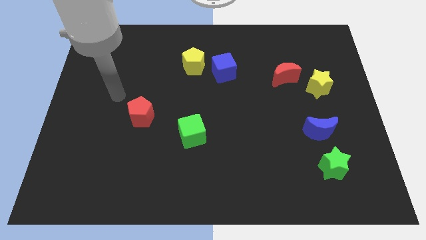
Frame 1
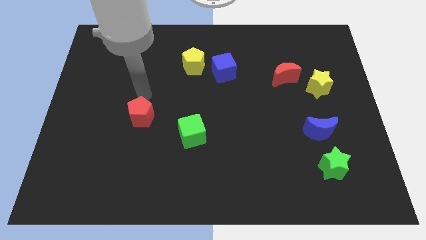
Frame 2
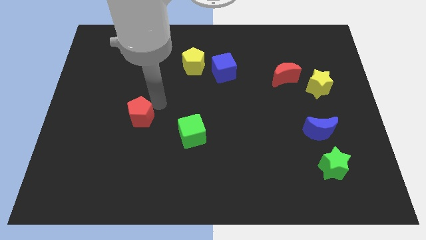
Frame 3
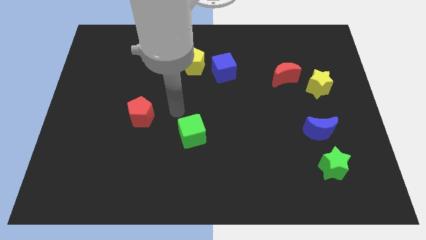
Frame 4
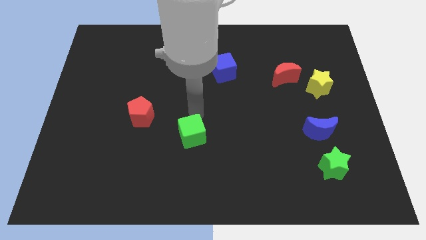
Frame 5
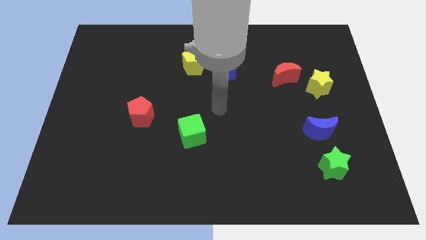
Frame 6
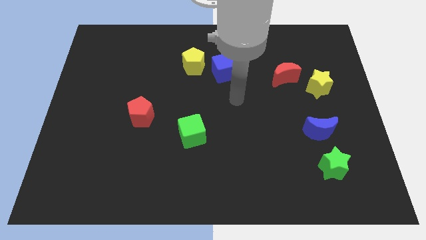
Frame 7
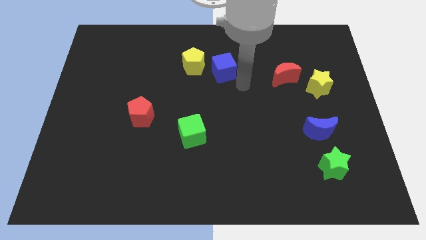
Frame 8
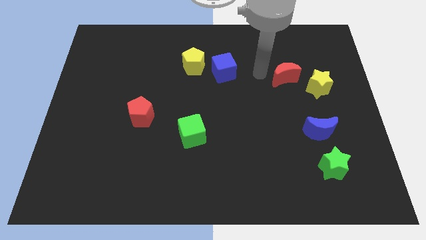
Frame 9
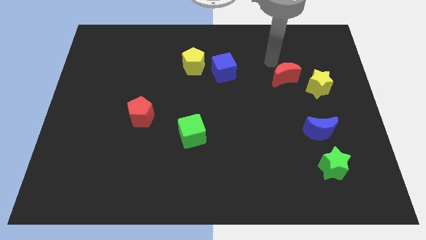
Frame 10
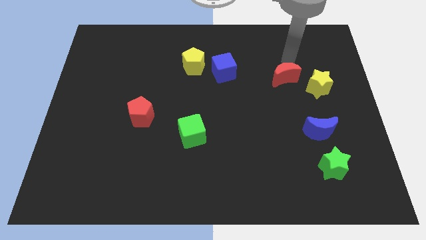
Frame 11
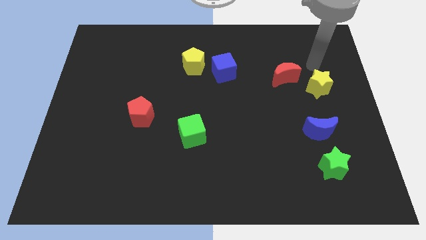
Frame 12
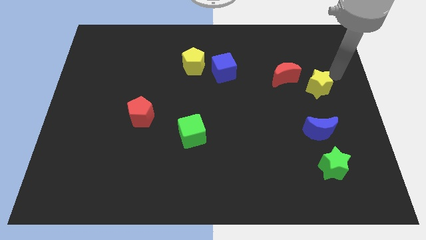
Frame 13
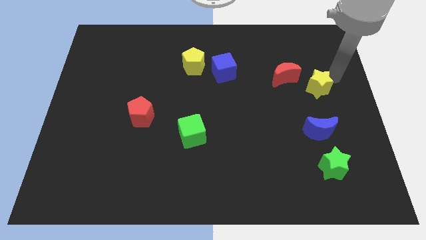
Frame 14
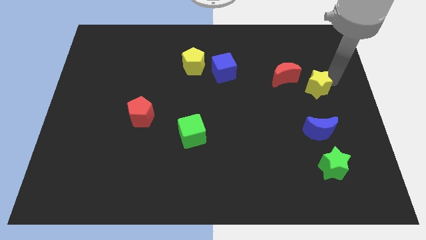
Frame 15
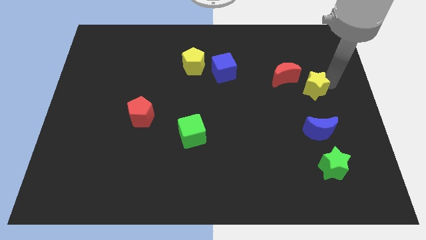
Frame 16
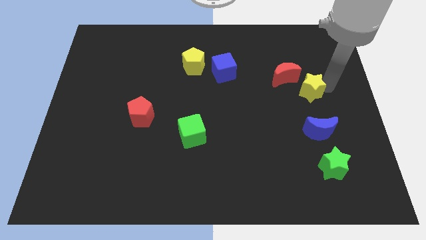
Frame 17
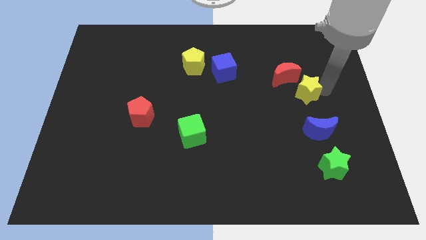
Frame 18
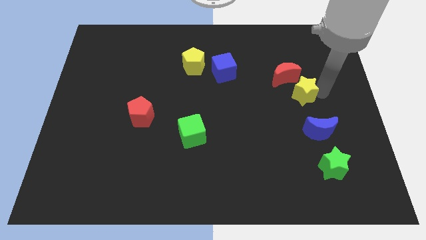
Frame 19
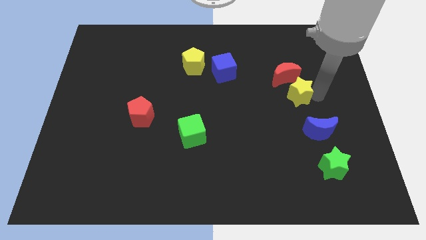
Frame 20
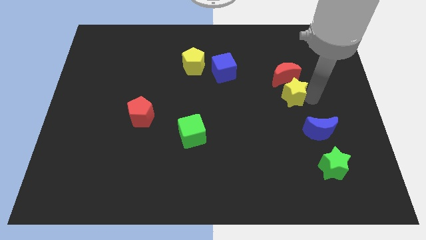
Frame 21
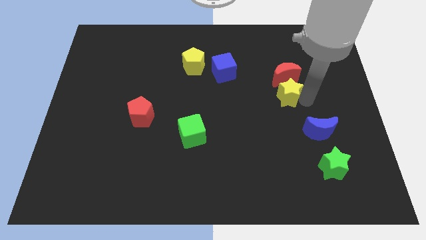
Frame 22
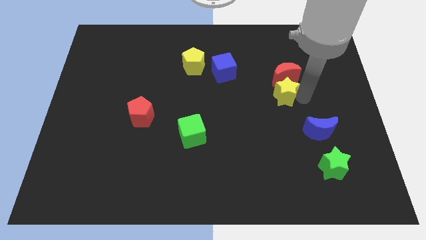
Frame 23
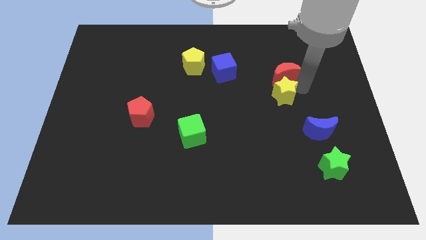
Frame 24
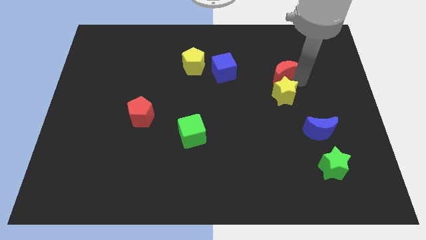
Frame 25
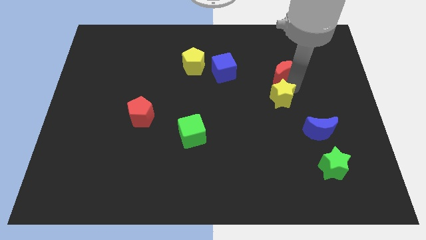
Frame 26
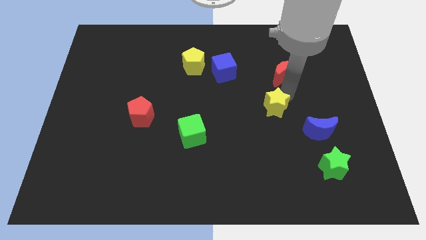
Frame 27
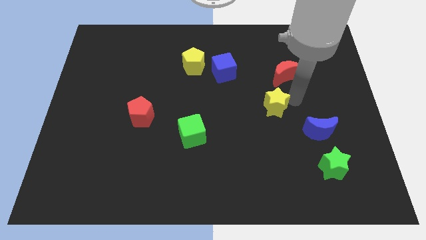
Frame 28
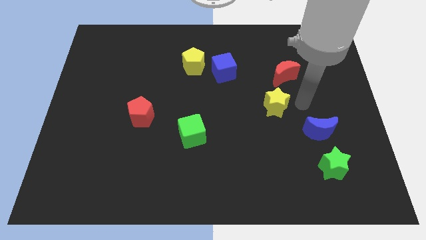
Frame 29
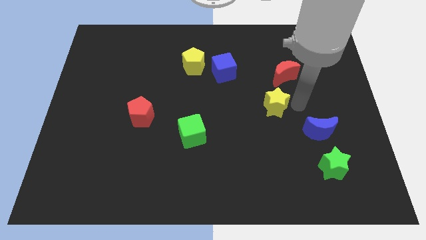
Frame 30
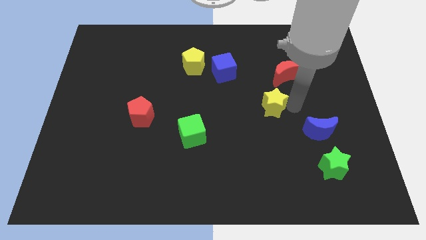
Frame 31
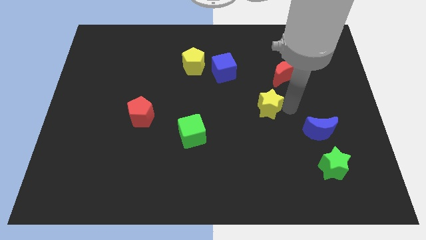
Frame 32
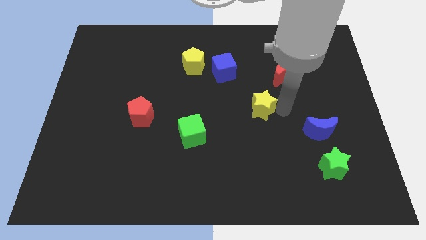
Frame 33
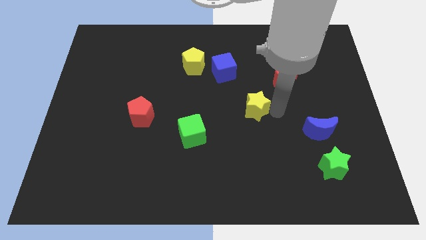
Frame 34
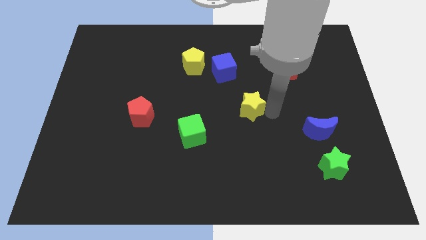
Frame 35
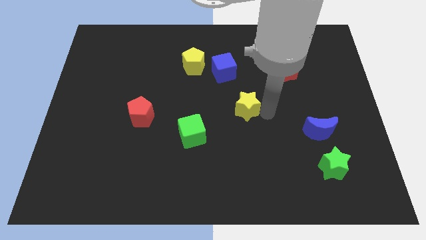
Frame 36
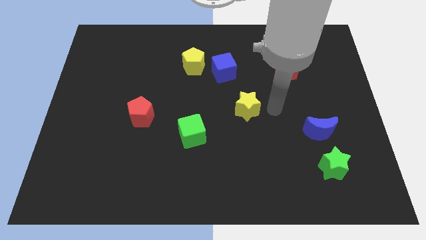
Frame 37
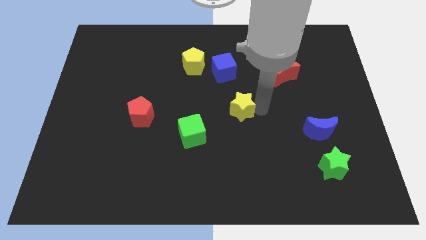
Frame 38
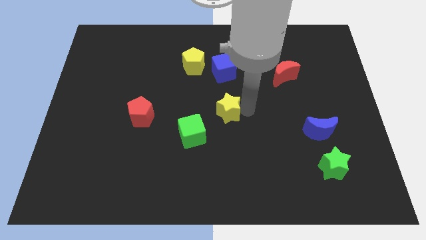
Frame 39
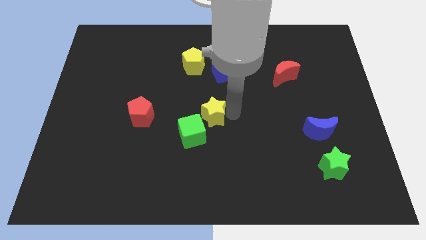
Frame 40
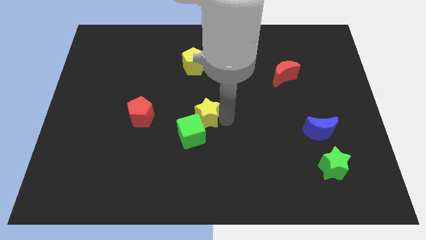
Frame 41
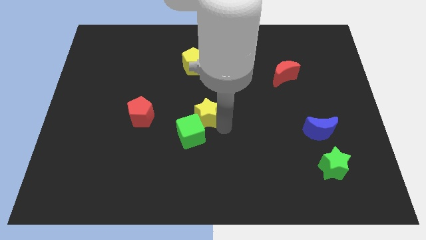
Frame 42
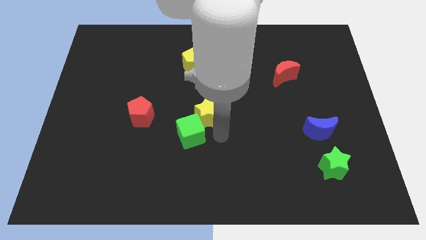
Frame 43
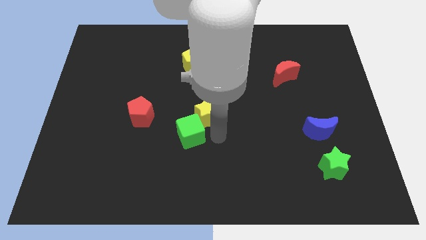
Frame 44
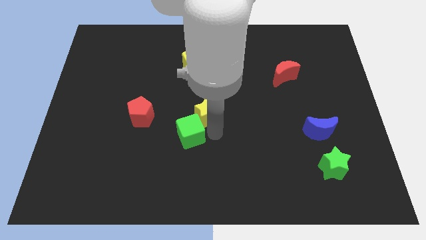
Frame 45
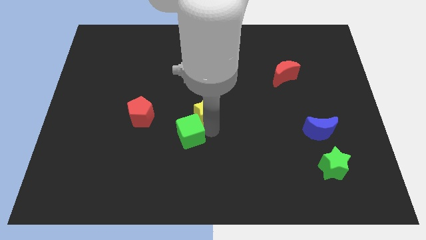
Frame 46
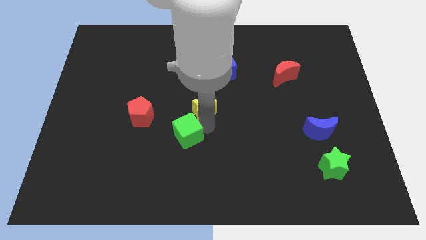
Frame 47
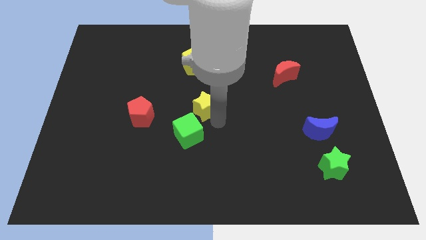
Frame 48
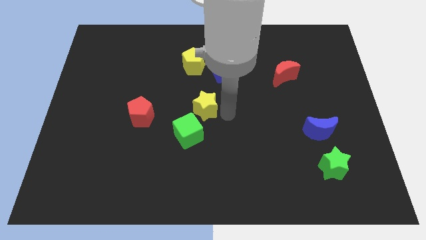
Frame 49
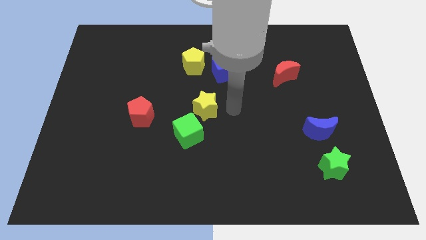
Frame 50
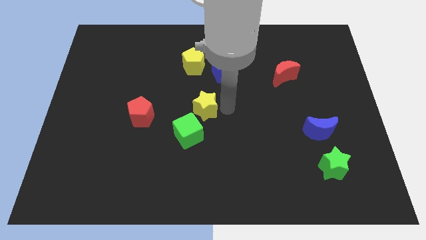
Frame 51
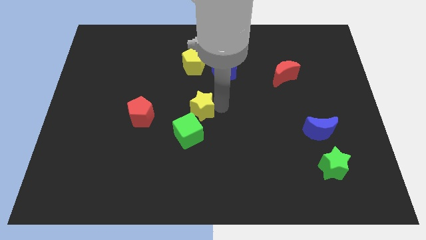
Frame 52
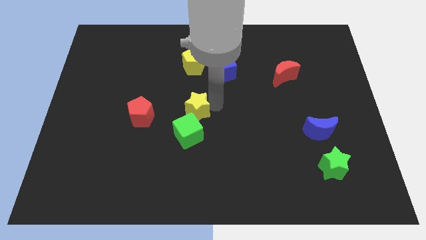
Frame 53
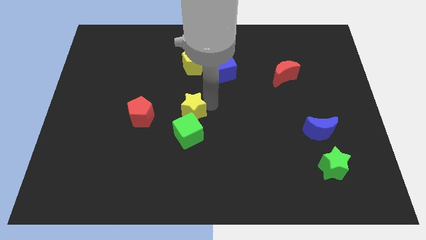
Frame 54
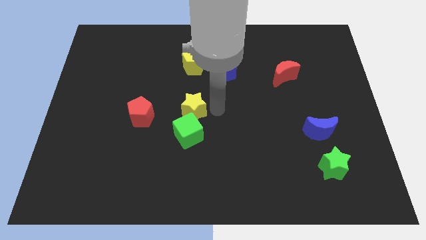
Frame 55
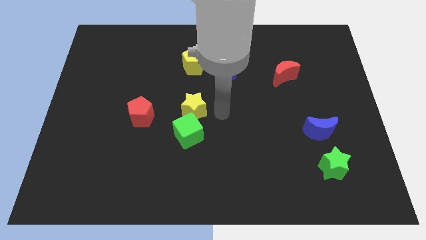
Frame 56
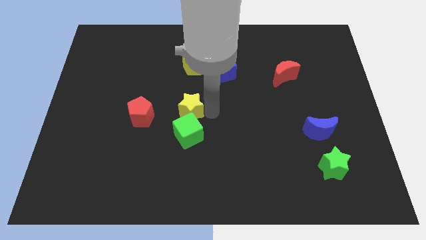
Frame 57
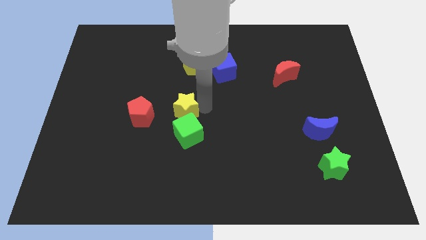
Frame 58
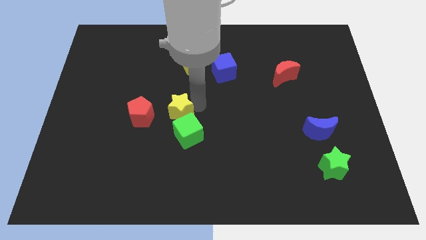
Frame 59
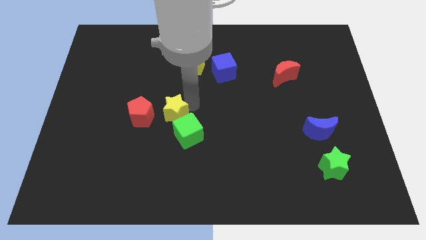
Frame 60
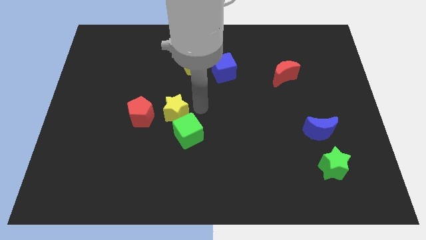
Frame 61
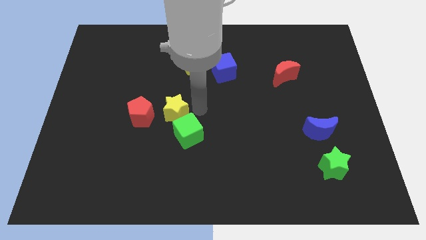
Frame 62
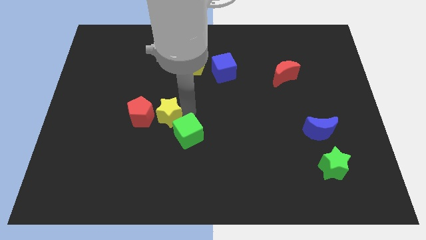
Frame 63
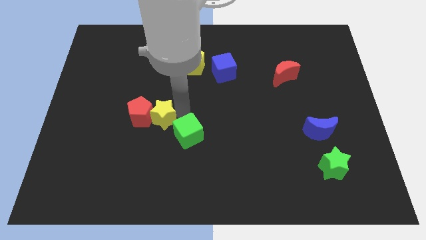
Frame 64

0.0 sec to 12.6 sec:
push the yellow star towards the red pentagon
